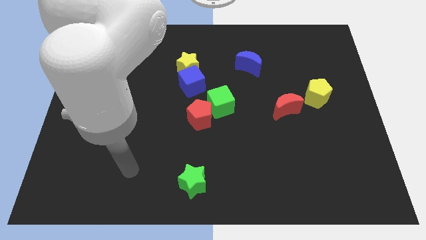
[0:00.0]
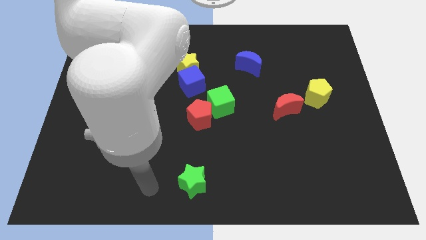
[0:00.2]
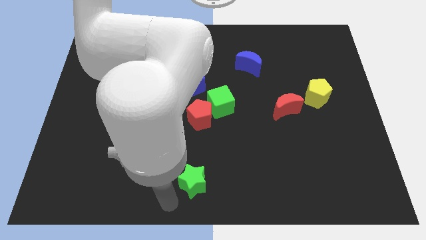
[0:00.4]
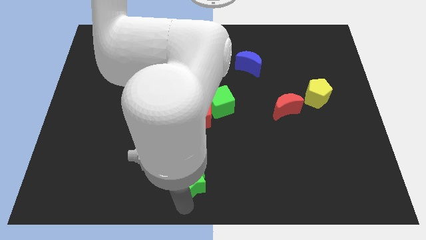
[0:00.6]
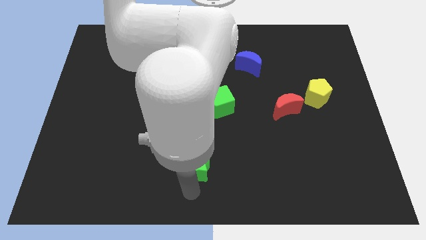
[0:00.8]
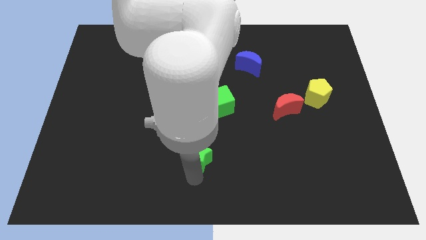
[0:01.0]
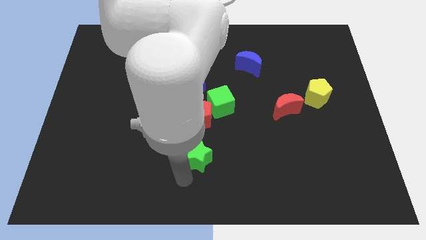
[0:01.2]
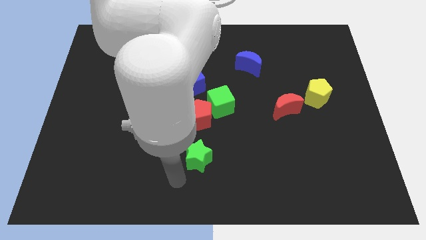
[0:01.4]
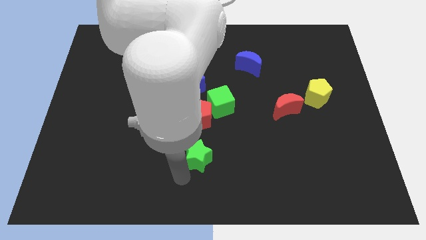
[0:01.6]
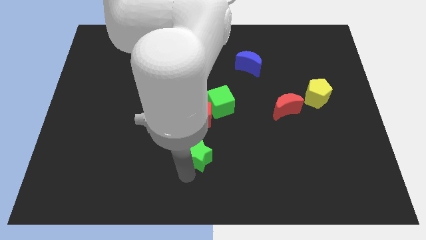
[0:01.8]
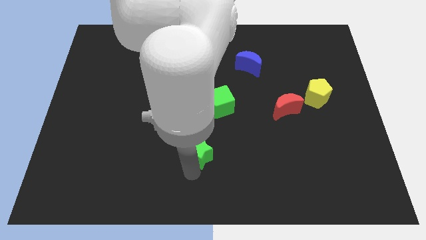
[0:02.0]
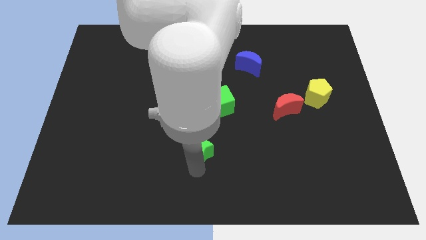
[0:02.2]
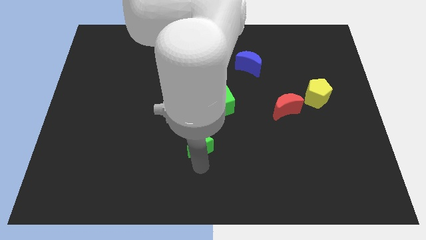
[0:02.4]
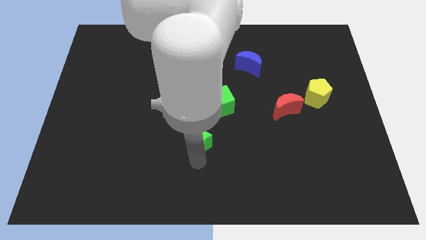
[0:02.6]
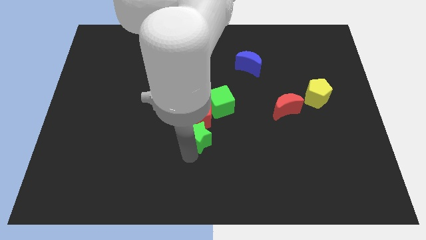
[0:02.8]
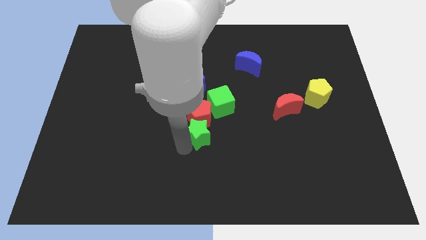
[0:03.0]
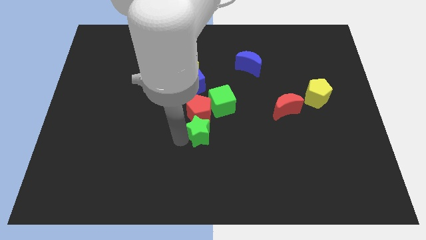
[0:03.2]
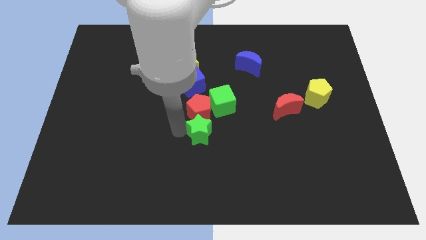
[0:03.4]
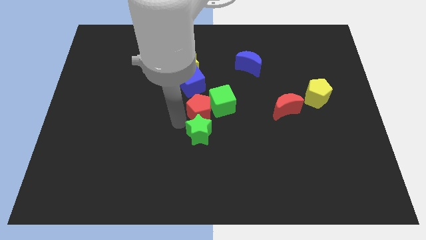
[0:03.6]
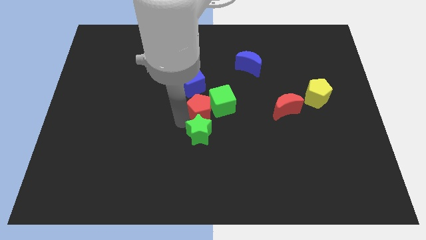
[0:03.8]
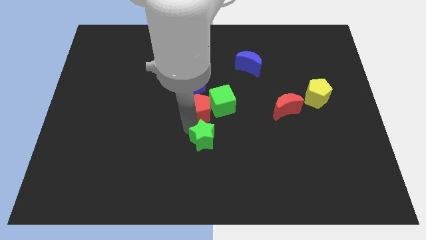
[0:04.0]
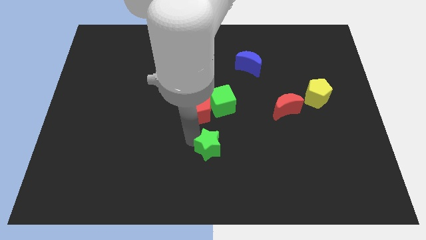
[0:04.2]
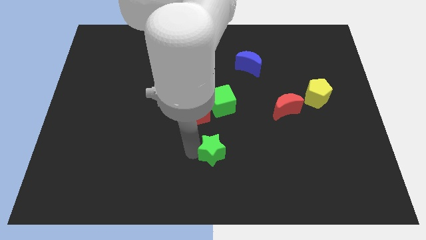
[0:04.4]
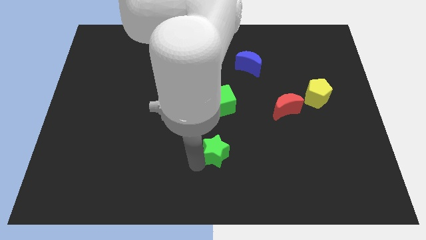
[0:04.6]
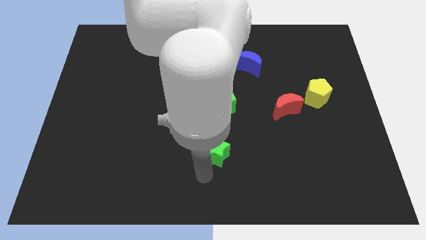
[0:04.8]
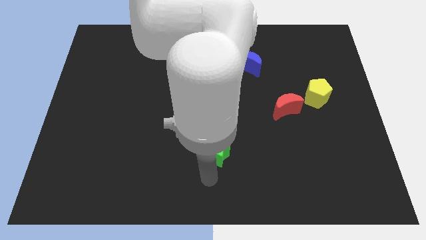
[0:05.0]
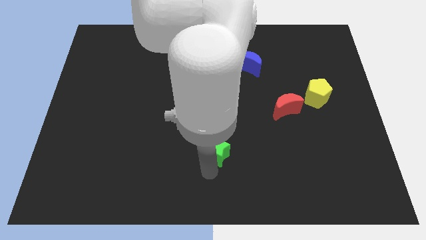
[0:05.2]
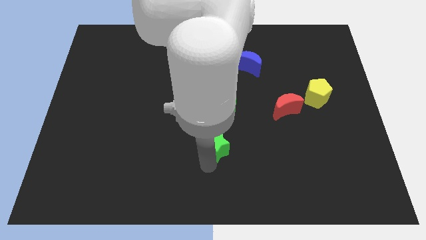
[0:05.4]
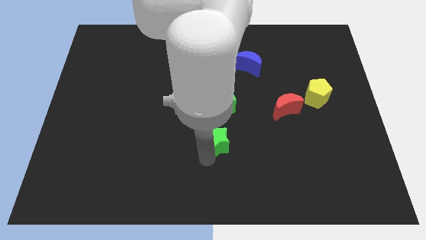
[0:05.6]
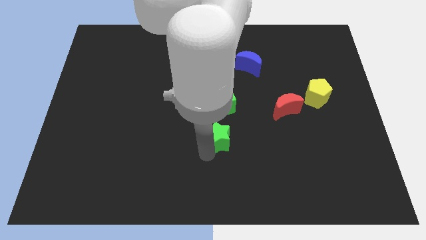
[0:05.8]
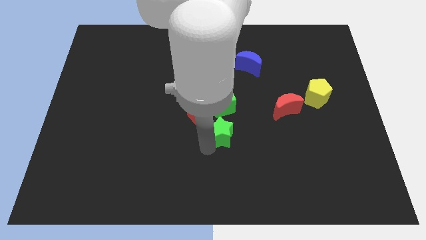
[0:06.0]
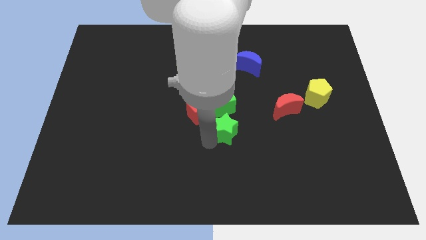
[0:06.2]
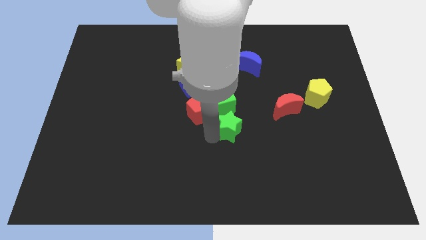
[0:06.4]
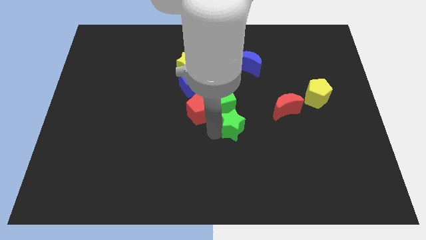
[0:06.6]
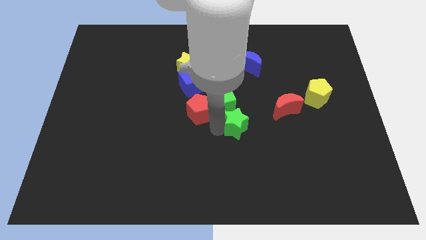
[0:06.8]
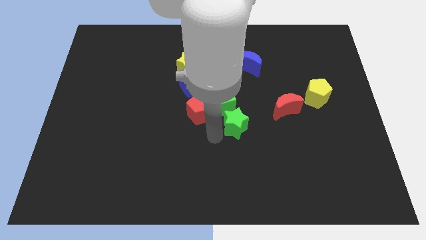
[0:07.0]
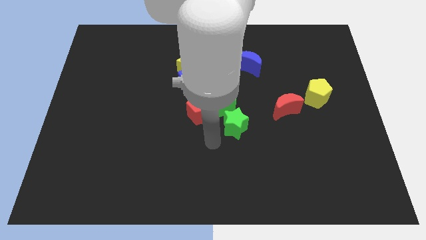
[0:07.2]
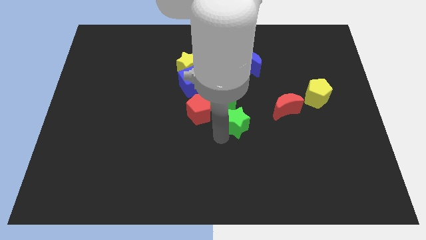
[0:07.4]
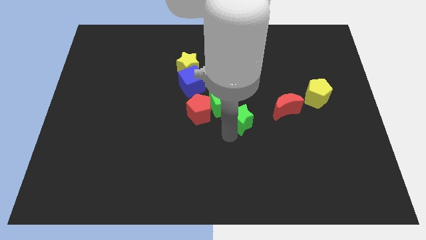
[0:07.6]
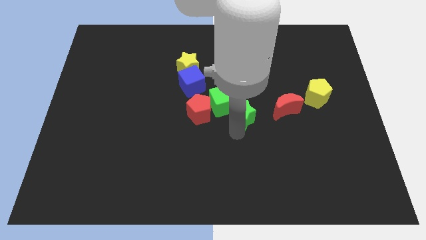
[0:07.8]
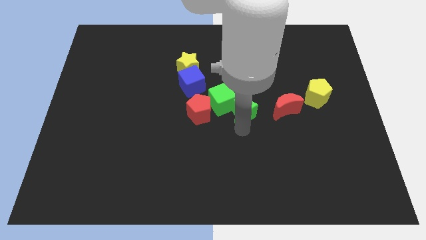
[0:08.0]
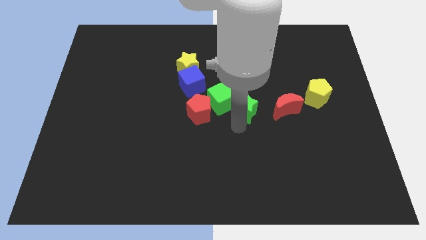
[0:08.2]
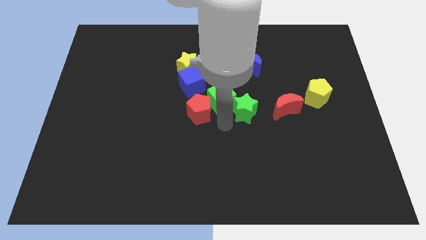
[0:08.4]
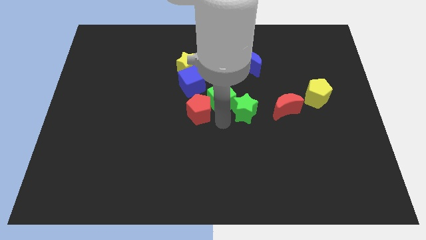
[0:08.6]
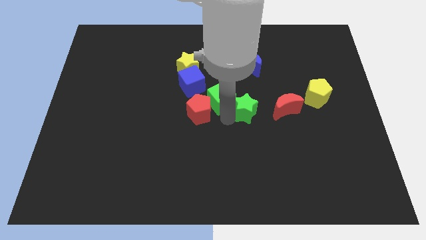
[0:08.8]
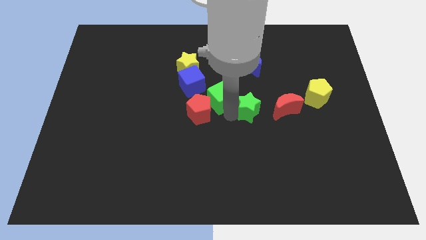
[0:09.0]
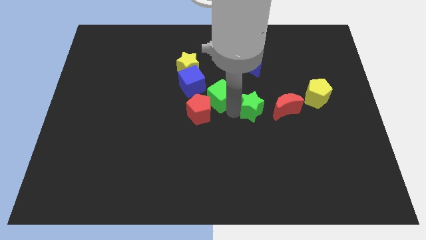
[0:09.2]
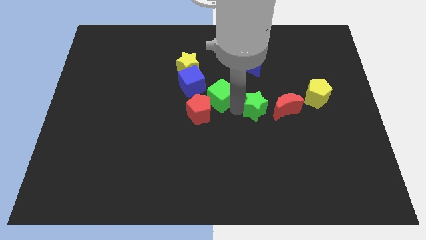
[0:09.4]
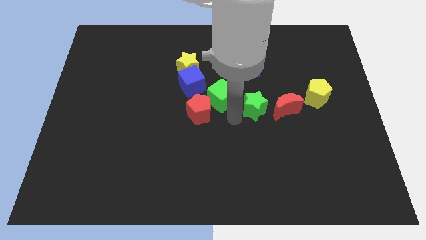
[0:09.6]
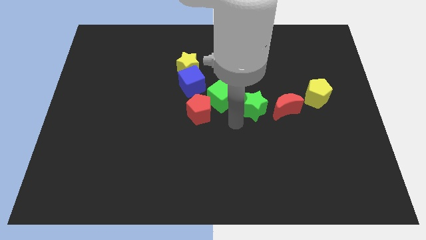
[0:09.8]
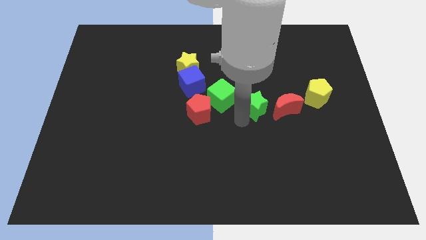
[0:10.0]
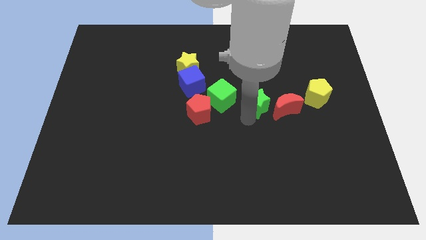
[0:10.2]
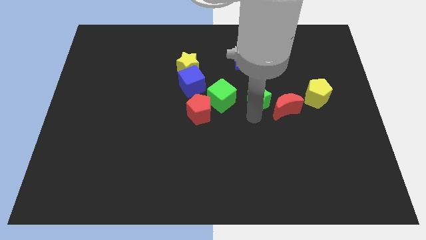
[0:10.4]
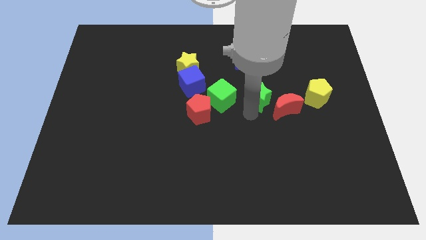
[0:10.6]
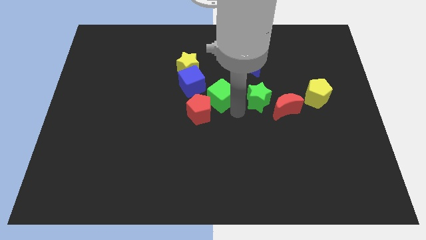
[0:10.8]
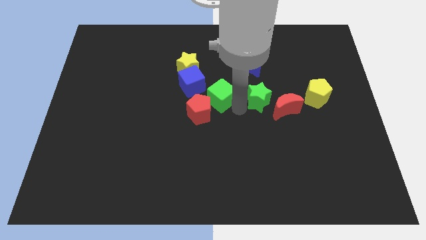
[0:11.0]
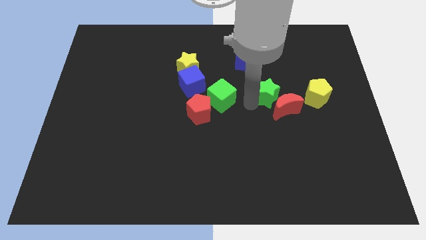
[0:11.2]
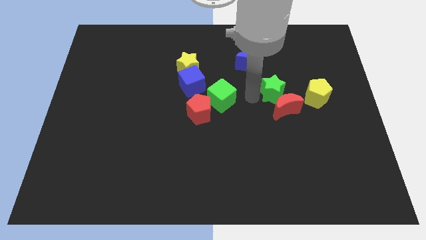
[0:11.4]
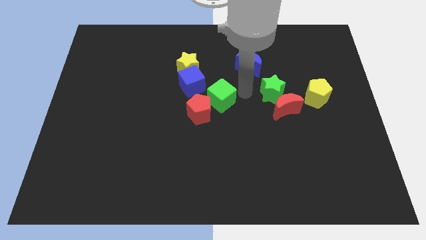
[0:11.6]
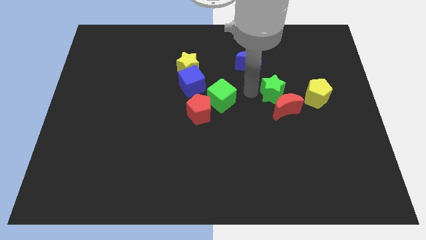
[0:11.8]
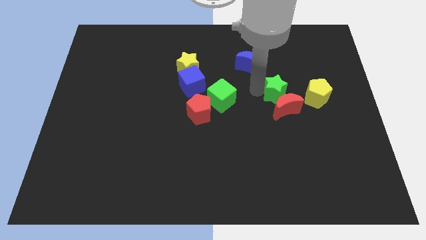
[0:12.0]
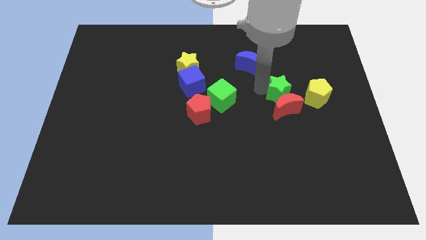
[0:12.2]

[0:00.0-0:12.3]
put the green star to the top right side of the red moon

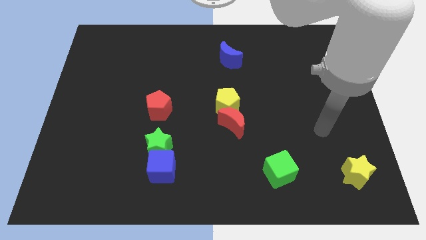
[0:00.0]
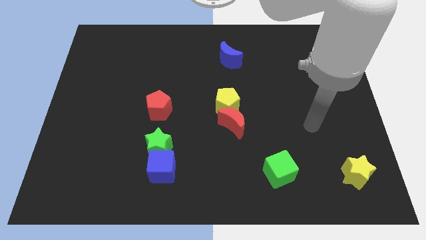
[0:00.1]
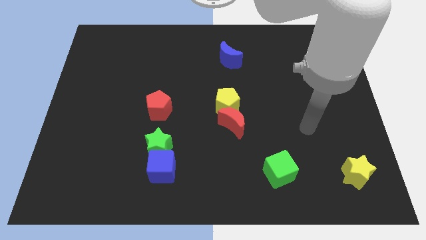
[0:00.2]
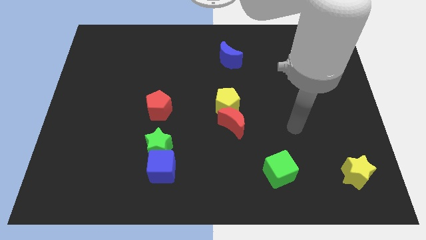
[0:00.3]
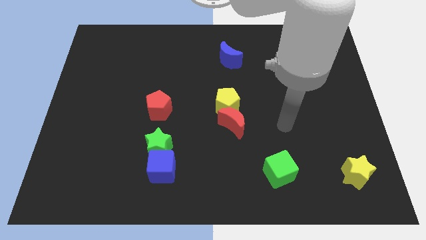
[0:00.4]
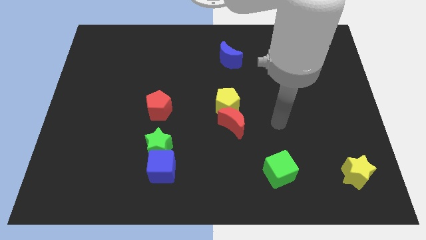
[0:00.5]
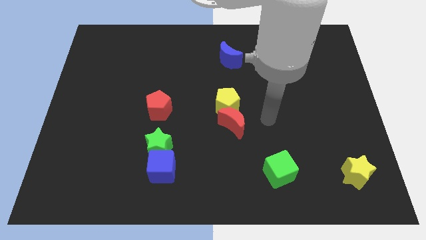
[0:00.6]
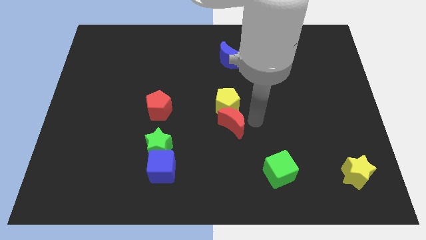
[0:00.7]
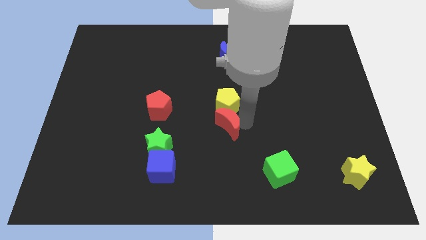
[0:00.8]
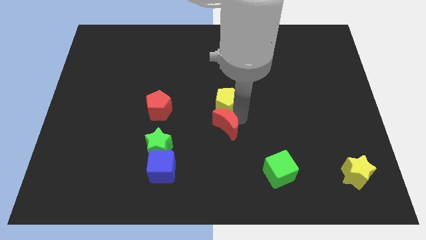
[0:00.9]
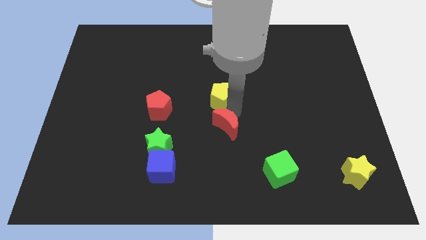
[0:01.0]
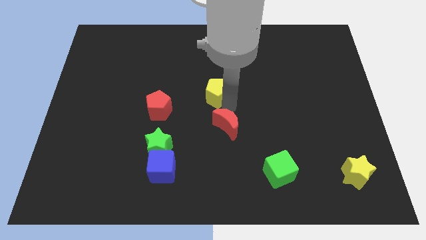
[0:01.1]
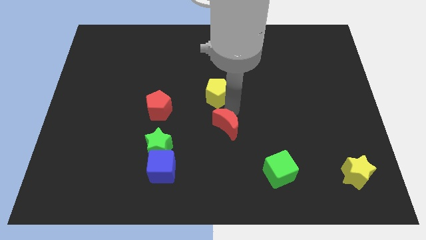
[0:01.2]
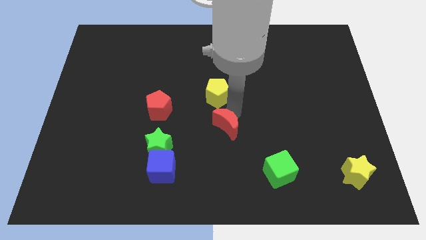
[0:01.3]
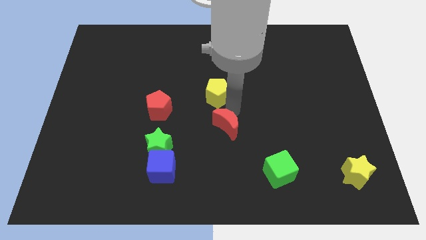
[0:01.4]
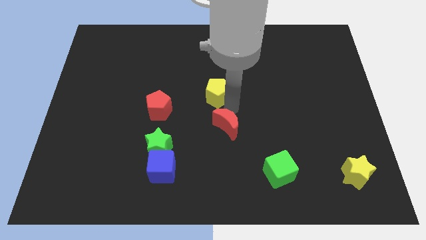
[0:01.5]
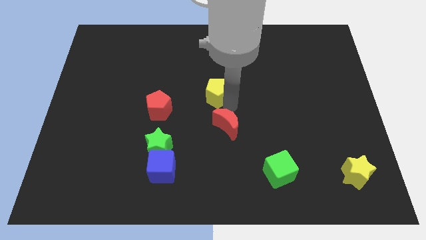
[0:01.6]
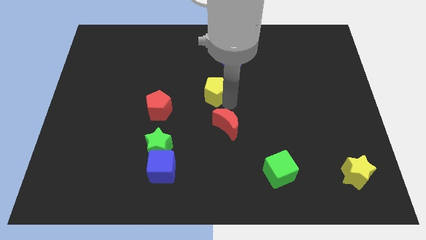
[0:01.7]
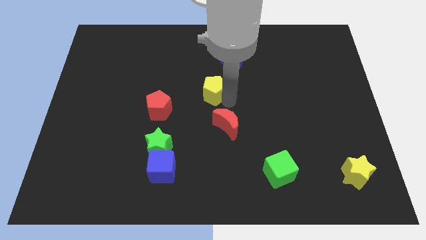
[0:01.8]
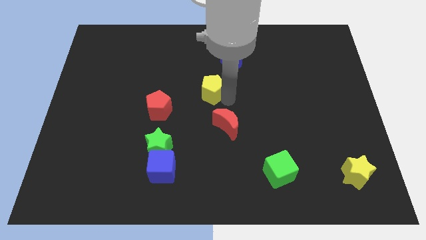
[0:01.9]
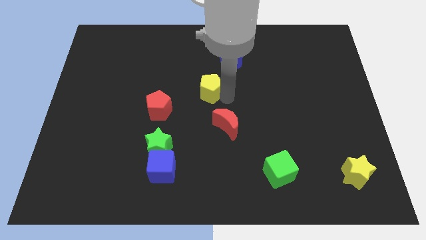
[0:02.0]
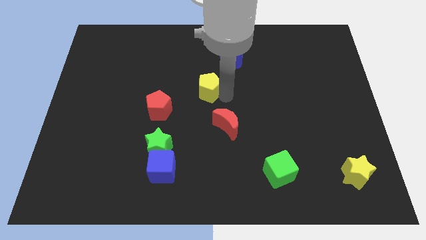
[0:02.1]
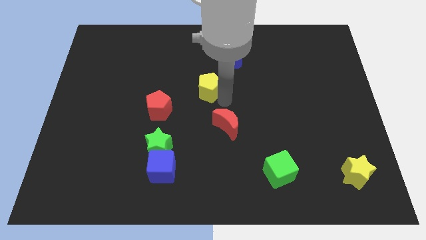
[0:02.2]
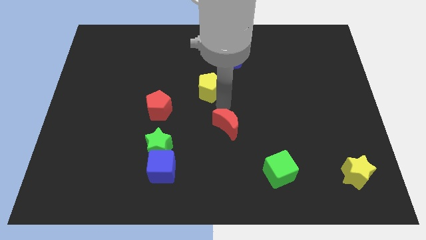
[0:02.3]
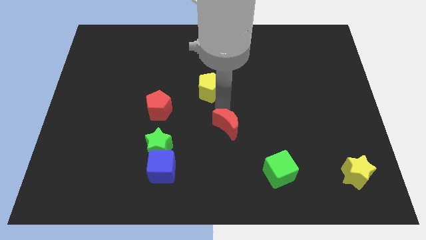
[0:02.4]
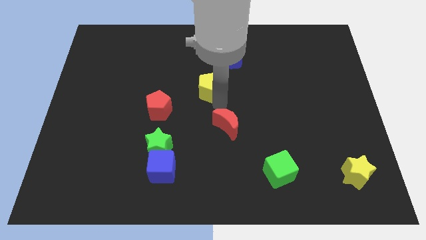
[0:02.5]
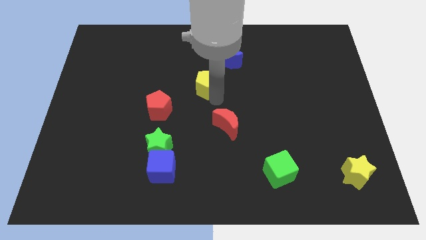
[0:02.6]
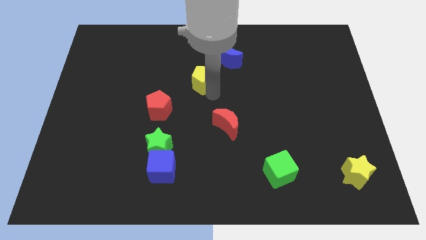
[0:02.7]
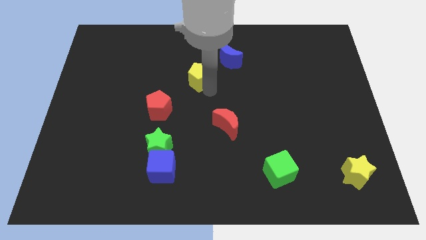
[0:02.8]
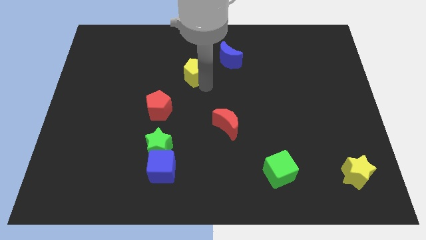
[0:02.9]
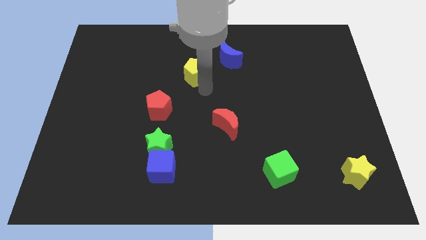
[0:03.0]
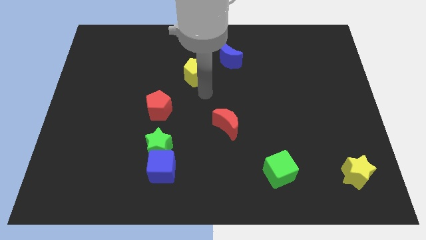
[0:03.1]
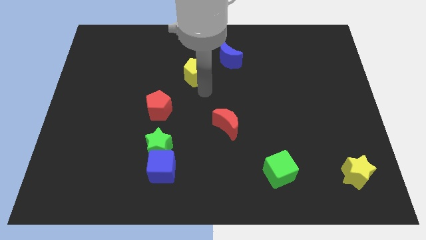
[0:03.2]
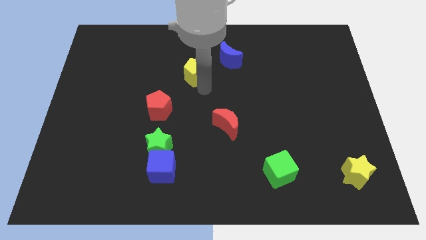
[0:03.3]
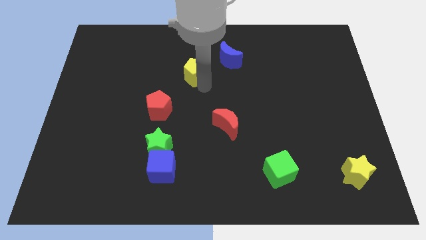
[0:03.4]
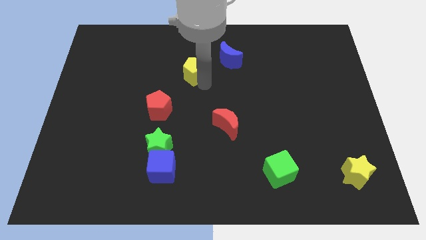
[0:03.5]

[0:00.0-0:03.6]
move the yellow pentagon left of the blue moon
